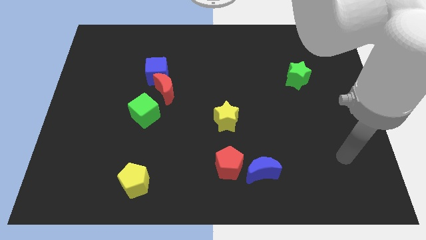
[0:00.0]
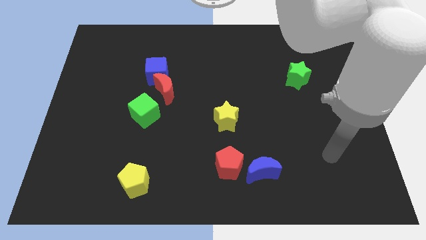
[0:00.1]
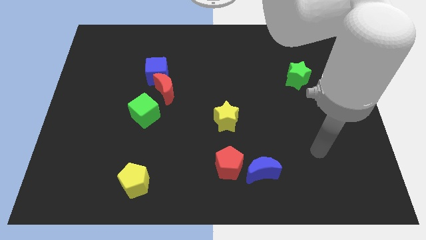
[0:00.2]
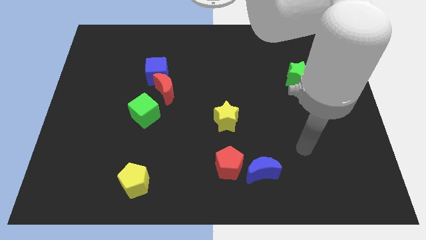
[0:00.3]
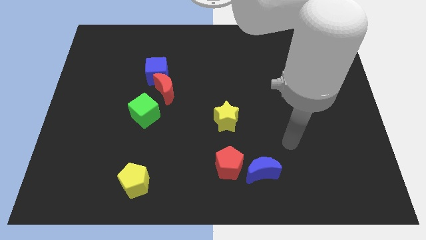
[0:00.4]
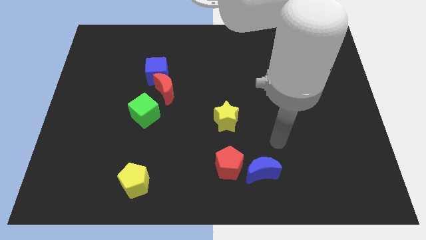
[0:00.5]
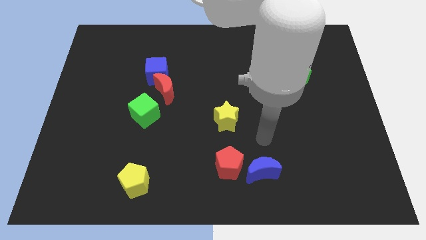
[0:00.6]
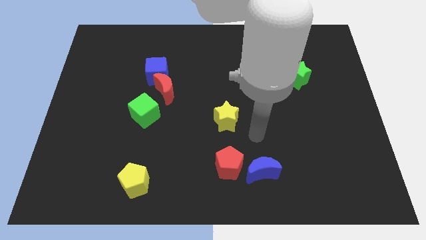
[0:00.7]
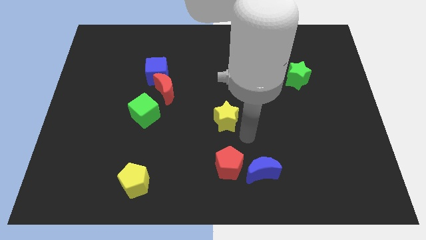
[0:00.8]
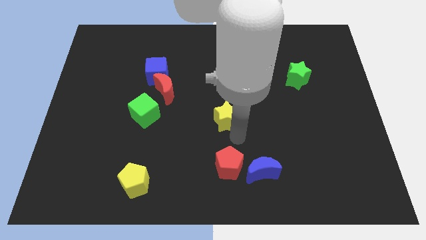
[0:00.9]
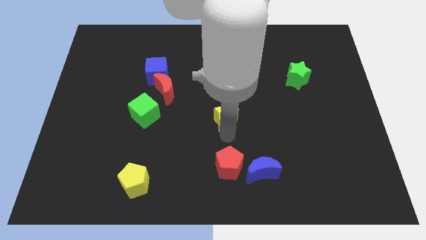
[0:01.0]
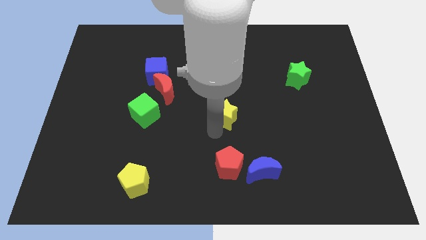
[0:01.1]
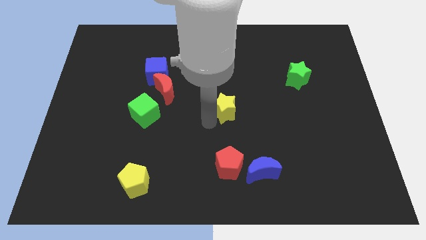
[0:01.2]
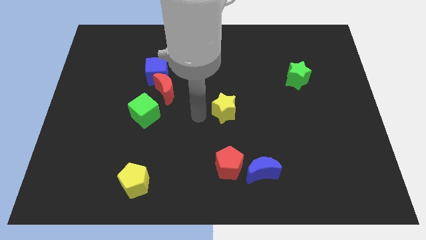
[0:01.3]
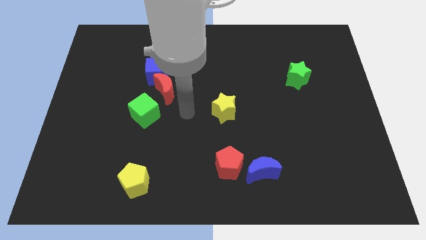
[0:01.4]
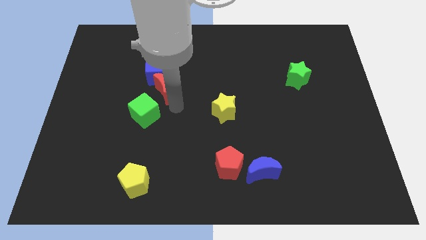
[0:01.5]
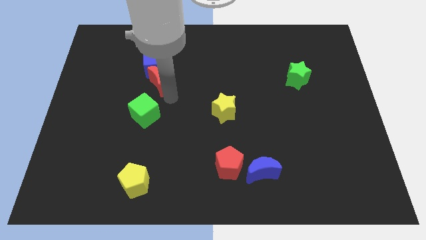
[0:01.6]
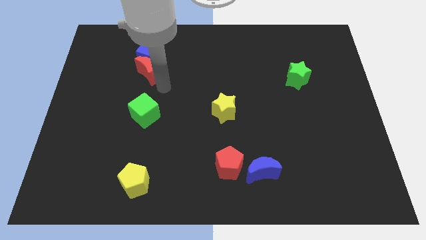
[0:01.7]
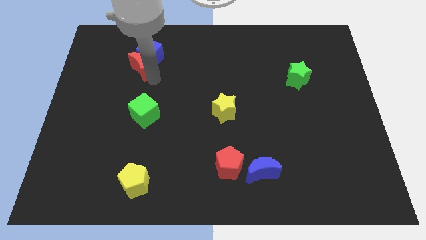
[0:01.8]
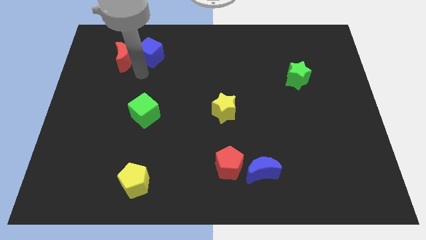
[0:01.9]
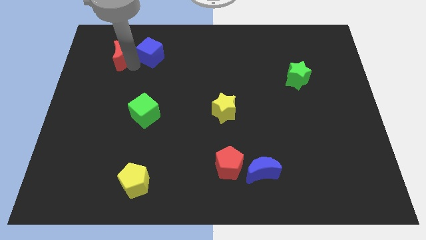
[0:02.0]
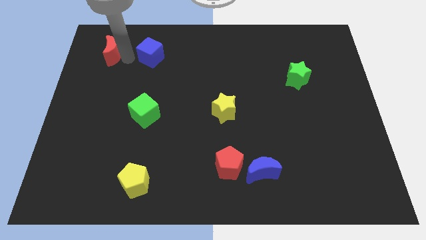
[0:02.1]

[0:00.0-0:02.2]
separate the blue cube from the red moon

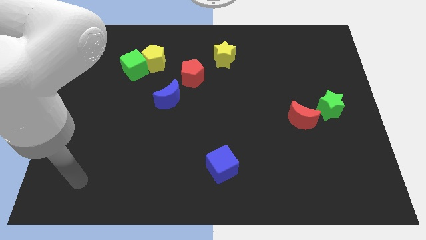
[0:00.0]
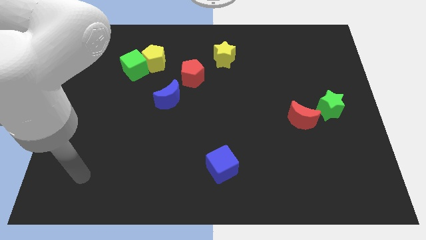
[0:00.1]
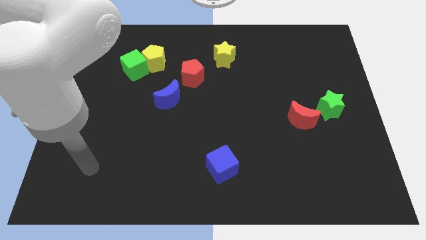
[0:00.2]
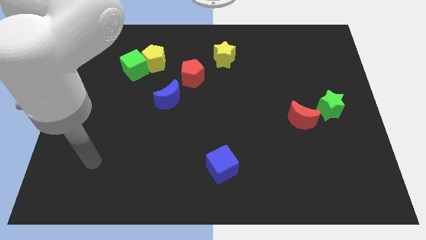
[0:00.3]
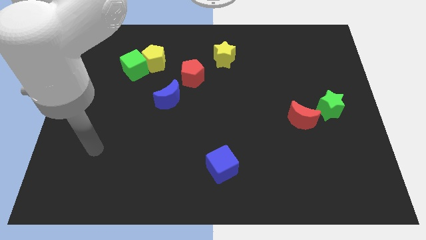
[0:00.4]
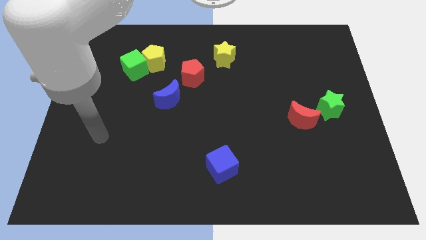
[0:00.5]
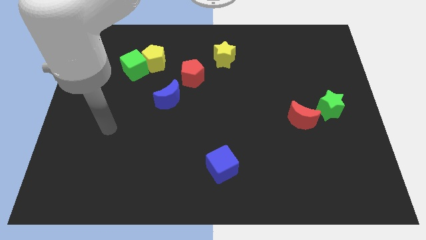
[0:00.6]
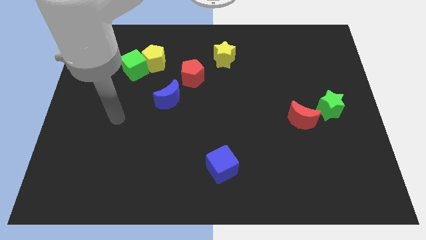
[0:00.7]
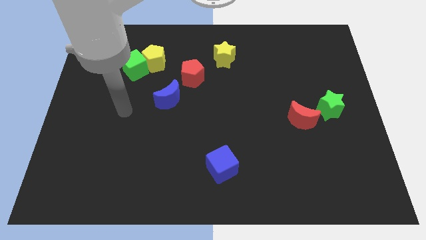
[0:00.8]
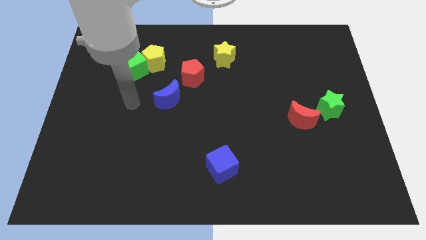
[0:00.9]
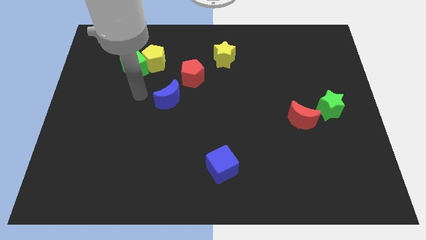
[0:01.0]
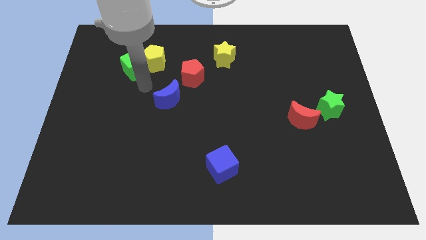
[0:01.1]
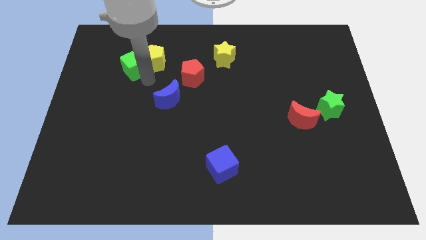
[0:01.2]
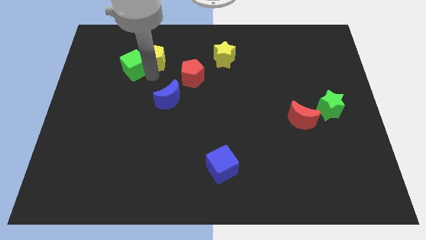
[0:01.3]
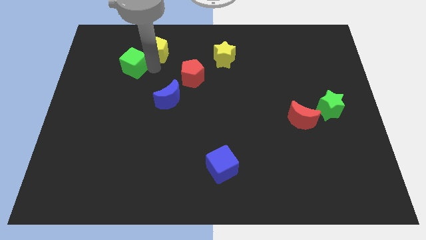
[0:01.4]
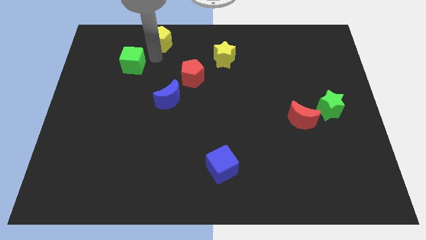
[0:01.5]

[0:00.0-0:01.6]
pull the green cube apart from the yellow pentagon

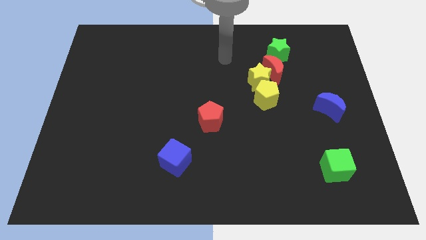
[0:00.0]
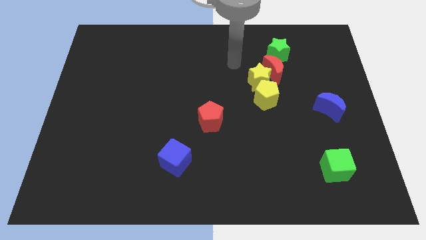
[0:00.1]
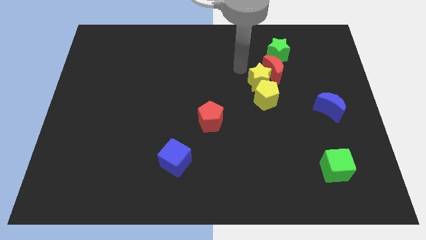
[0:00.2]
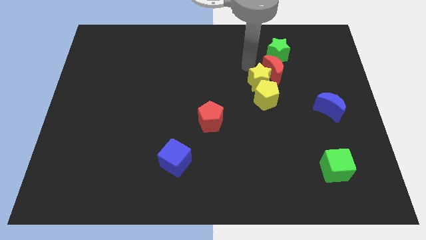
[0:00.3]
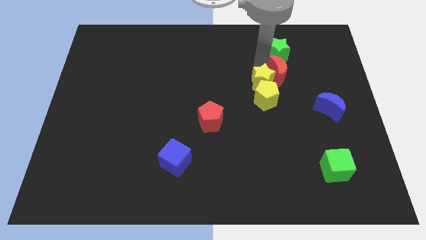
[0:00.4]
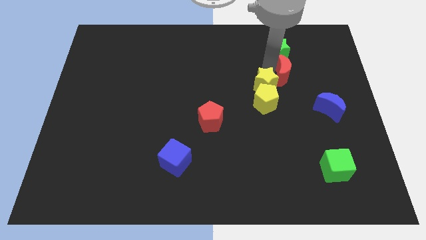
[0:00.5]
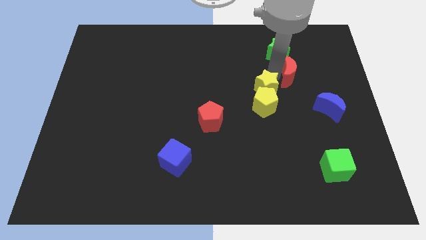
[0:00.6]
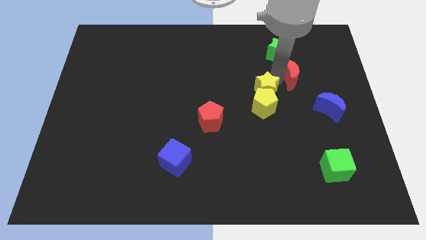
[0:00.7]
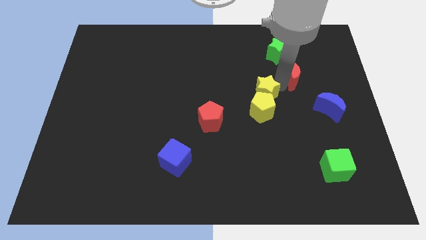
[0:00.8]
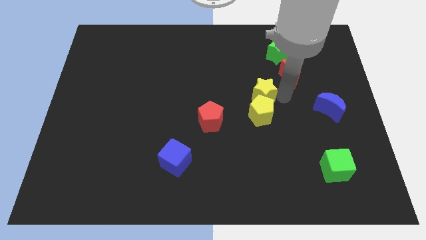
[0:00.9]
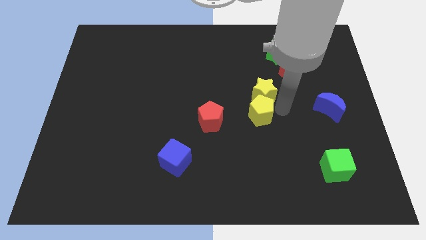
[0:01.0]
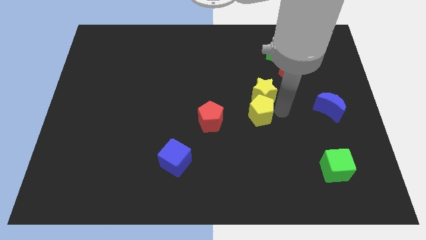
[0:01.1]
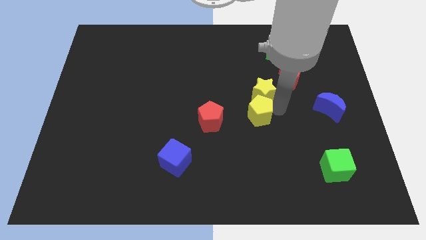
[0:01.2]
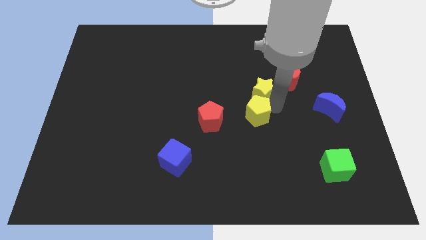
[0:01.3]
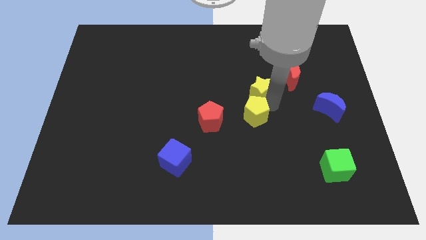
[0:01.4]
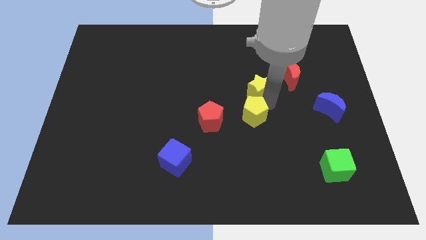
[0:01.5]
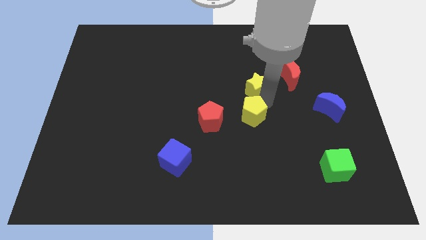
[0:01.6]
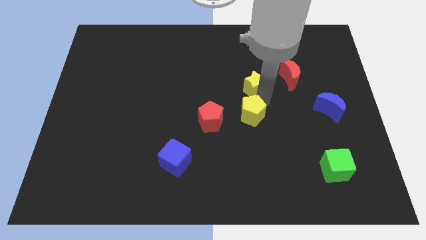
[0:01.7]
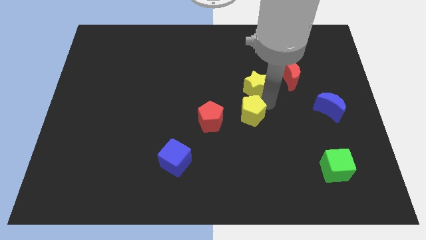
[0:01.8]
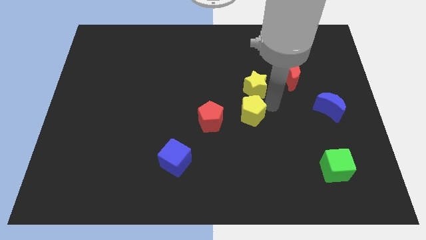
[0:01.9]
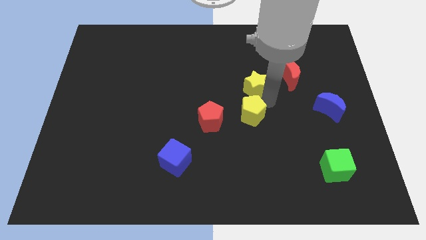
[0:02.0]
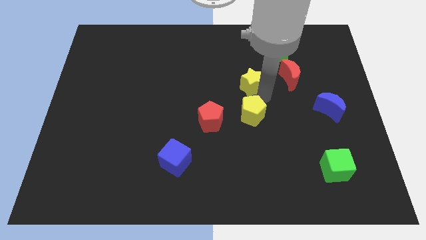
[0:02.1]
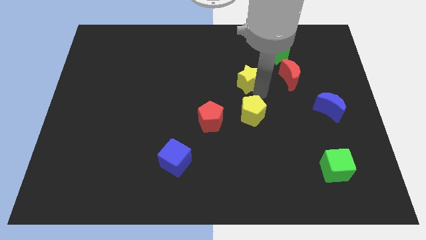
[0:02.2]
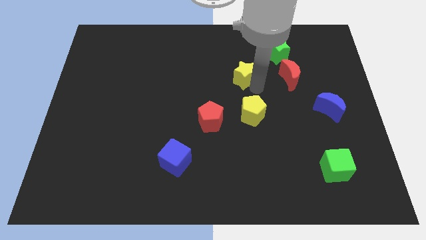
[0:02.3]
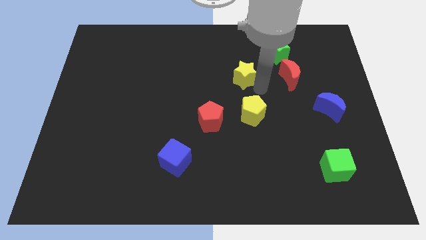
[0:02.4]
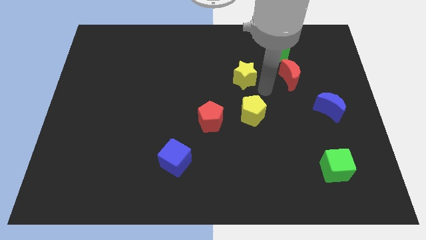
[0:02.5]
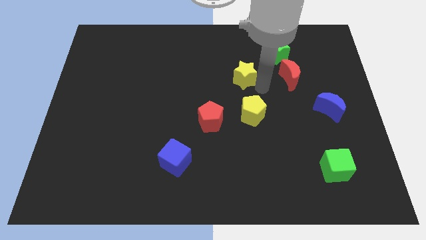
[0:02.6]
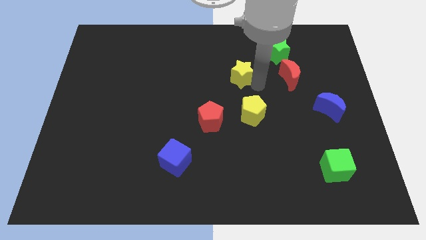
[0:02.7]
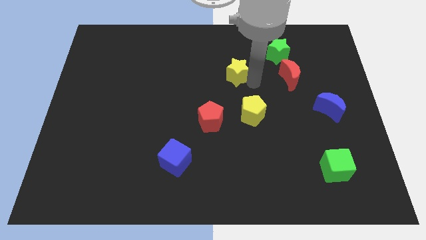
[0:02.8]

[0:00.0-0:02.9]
separate the yellow star from the red moon and yellow pentagon

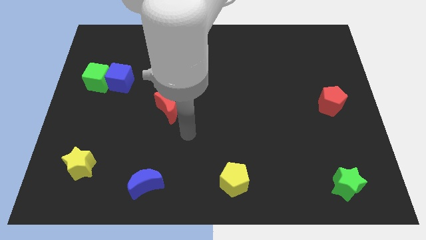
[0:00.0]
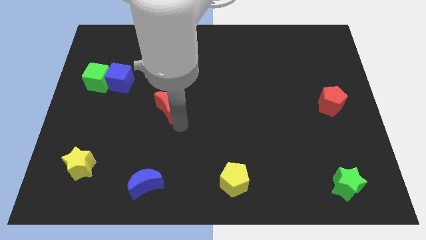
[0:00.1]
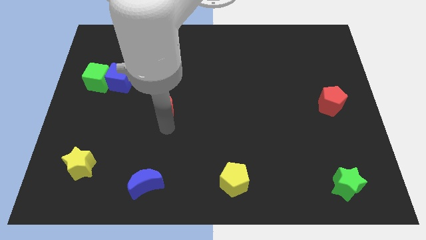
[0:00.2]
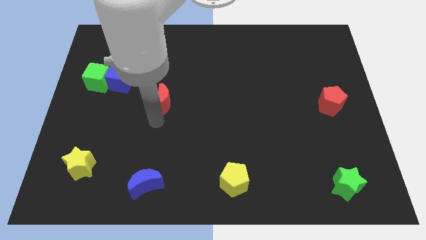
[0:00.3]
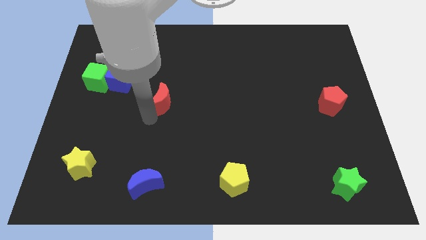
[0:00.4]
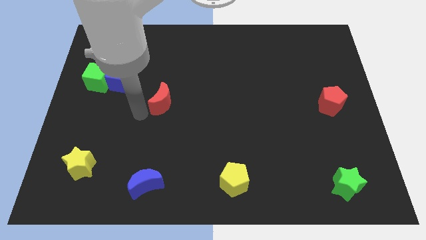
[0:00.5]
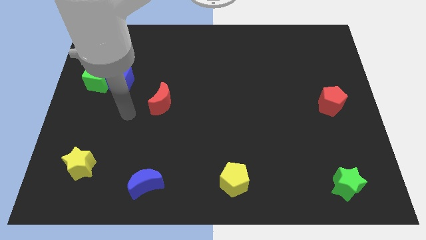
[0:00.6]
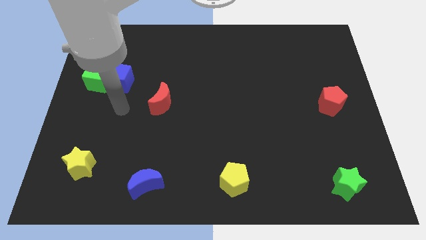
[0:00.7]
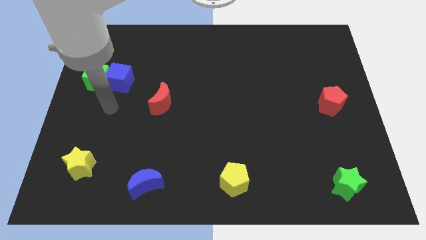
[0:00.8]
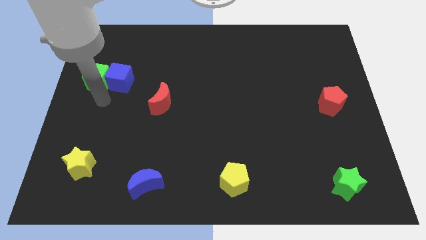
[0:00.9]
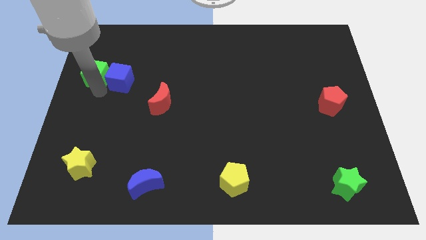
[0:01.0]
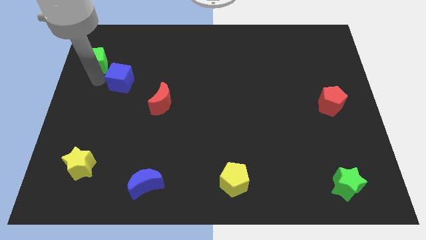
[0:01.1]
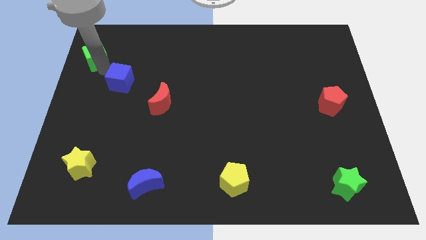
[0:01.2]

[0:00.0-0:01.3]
pull the blue cube apart from the green cube

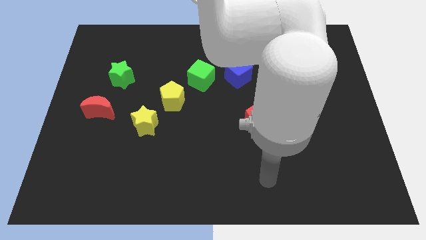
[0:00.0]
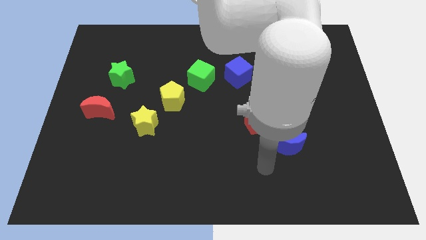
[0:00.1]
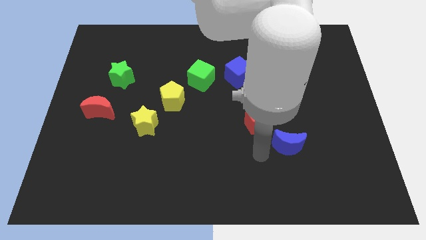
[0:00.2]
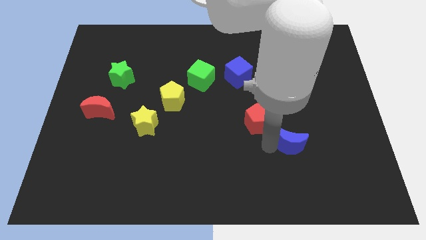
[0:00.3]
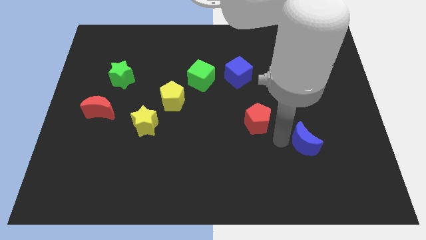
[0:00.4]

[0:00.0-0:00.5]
separate the red pentagon from the blue moon

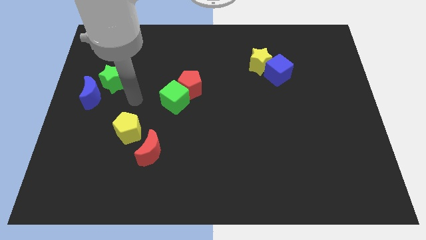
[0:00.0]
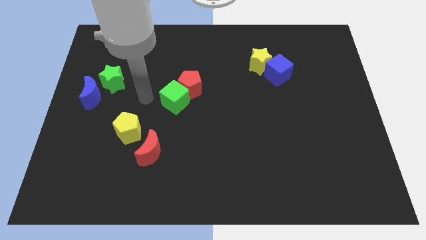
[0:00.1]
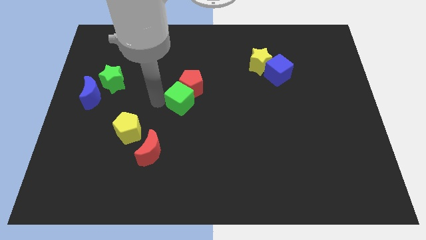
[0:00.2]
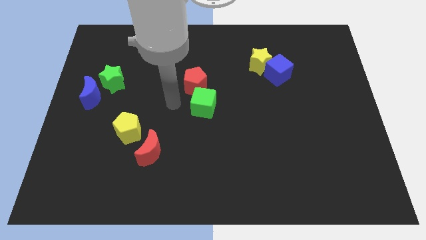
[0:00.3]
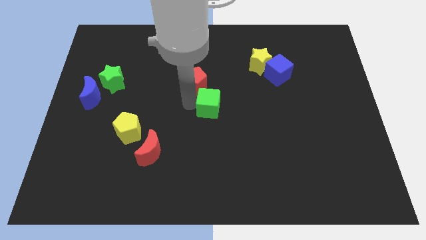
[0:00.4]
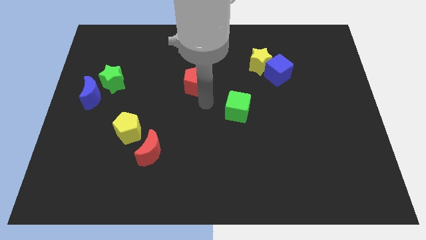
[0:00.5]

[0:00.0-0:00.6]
separate the red pentagon from the green cube

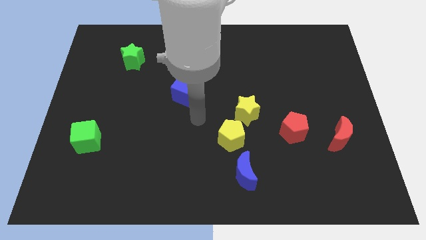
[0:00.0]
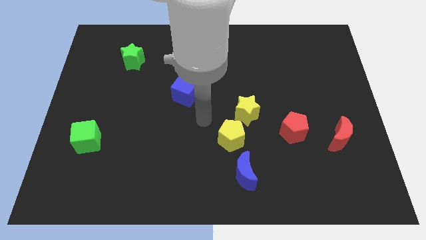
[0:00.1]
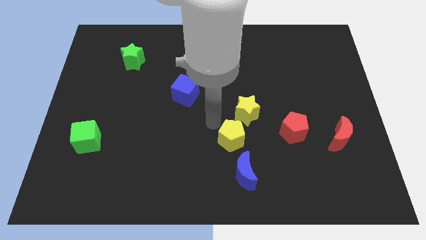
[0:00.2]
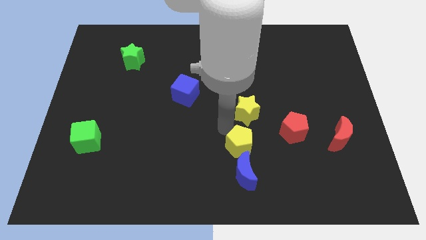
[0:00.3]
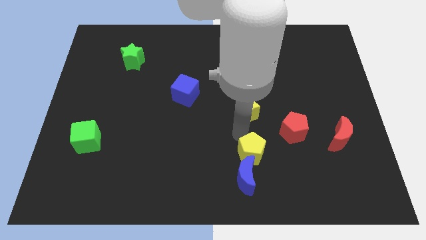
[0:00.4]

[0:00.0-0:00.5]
pull the yellow star apart from the yellow pentagon
